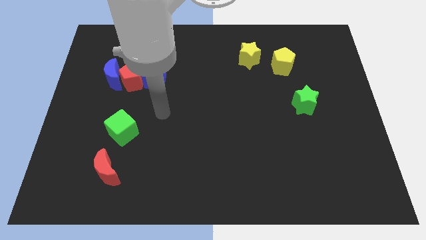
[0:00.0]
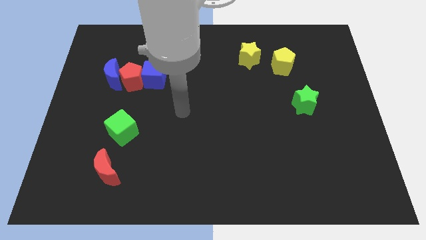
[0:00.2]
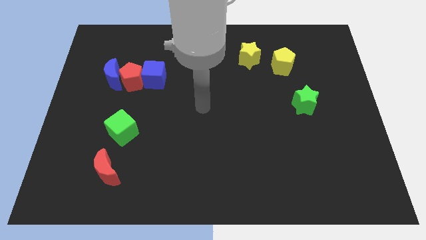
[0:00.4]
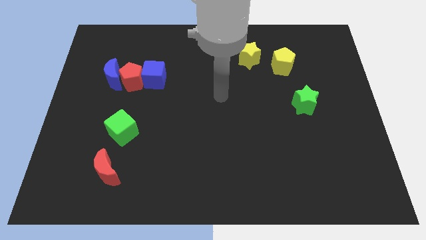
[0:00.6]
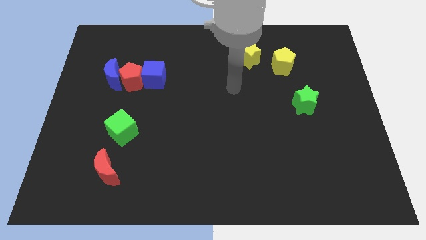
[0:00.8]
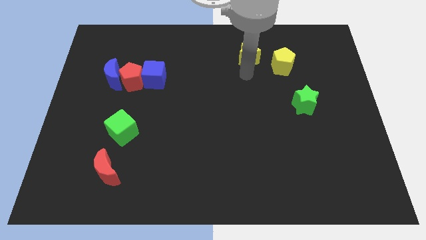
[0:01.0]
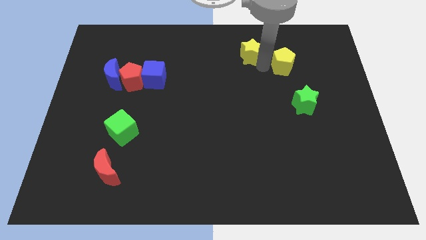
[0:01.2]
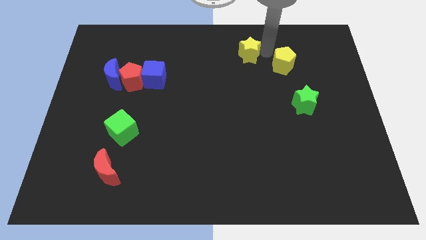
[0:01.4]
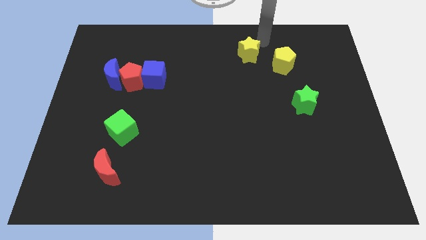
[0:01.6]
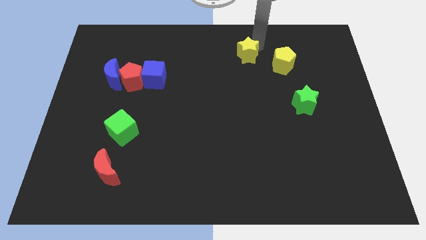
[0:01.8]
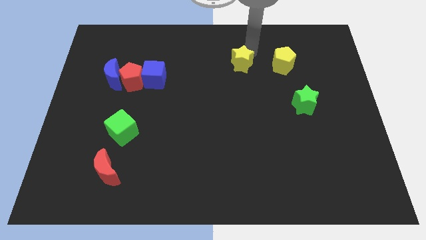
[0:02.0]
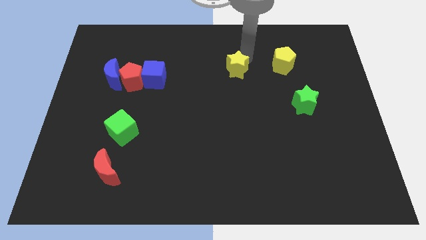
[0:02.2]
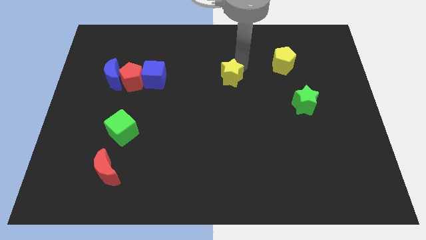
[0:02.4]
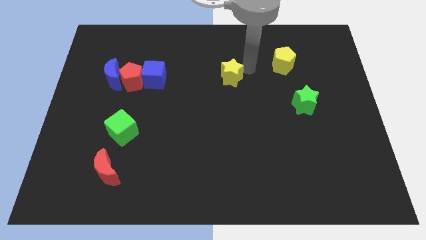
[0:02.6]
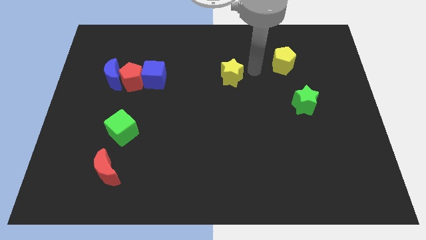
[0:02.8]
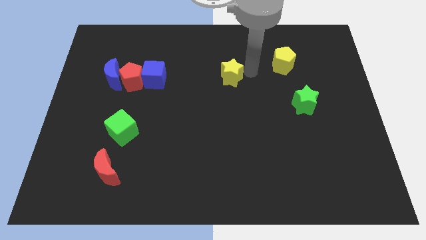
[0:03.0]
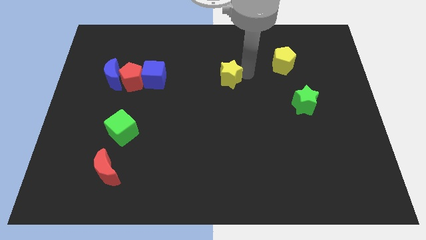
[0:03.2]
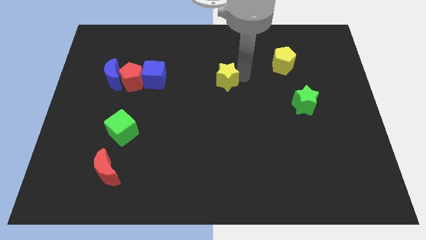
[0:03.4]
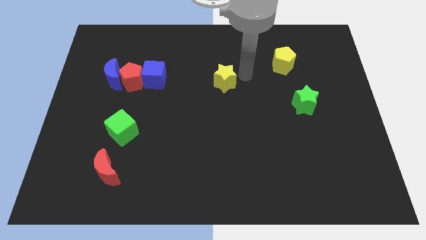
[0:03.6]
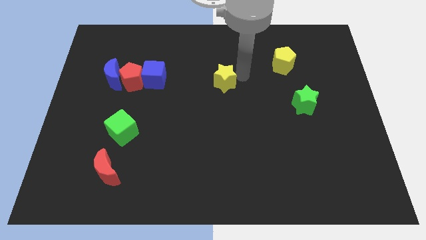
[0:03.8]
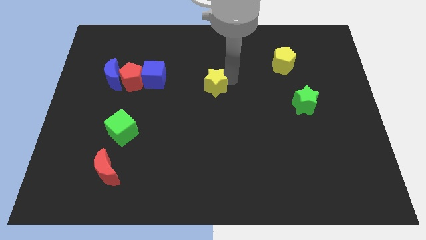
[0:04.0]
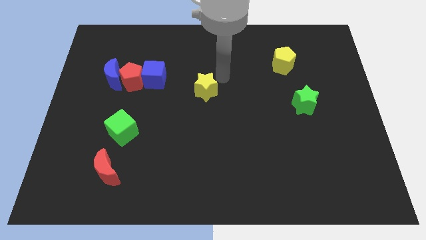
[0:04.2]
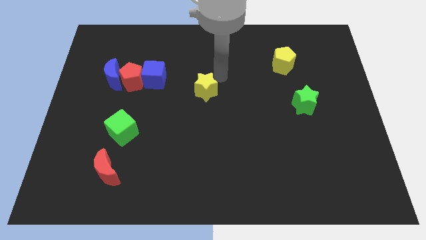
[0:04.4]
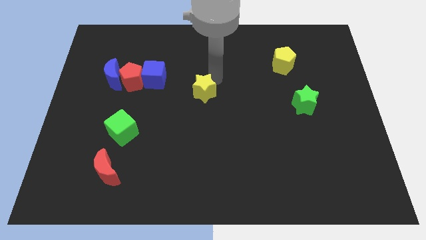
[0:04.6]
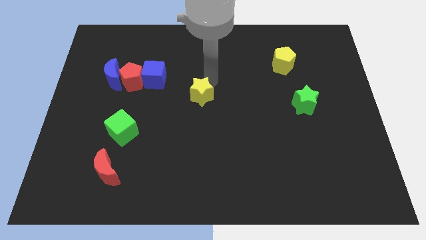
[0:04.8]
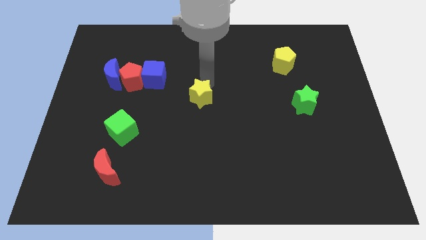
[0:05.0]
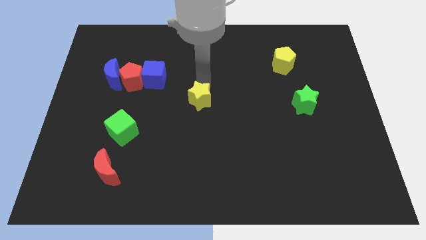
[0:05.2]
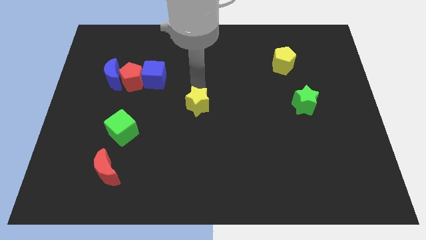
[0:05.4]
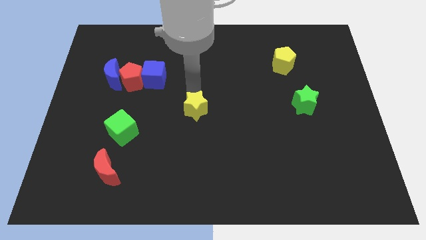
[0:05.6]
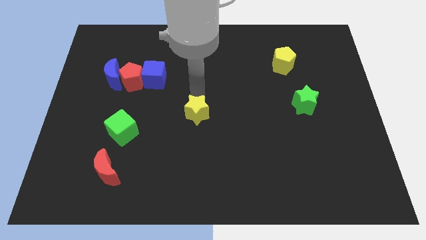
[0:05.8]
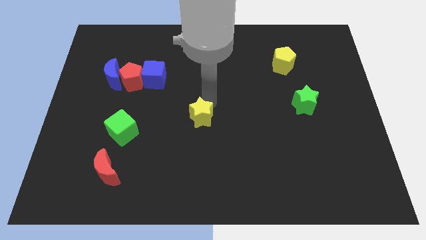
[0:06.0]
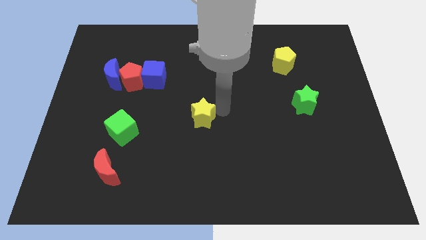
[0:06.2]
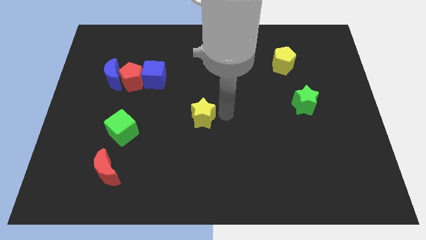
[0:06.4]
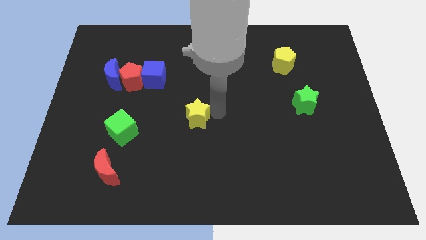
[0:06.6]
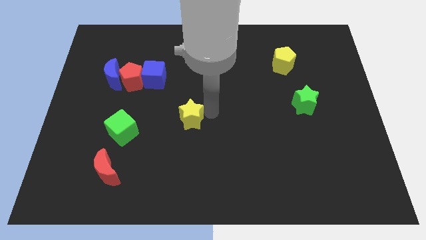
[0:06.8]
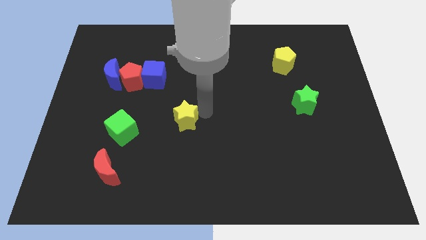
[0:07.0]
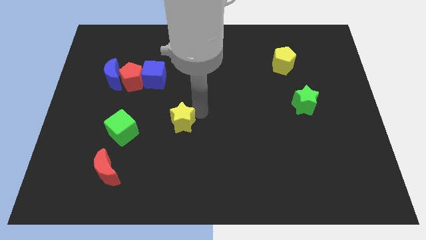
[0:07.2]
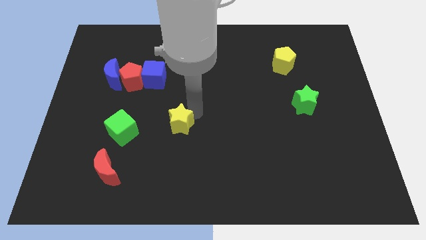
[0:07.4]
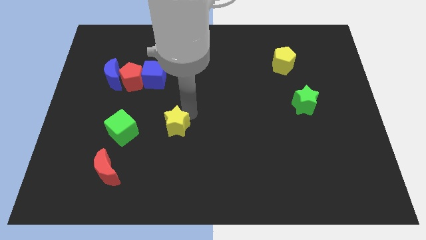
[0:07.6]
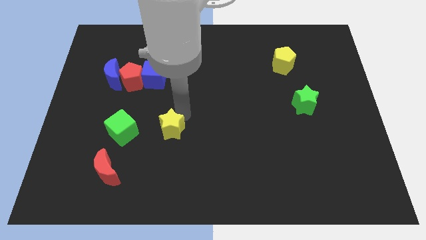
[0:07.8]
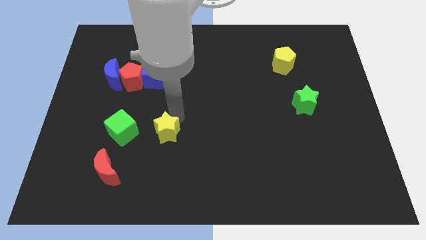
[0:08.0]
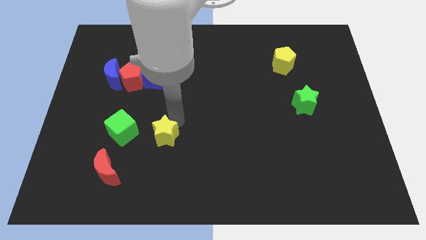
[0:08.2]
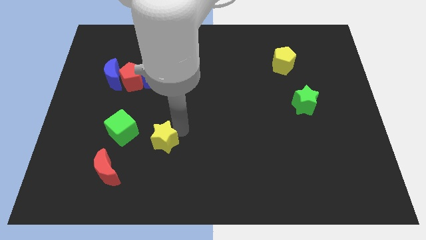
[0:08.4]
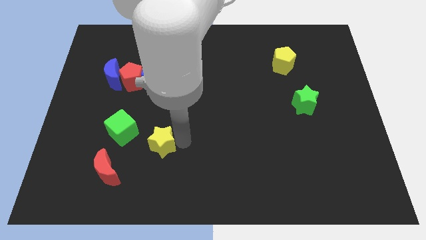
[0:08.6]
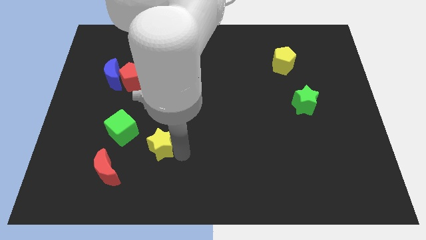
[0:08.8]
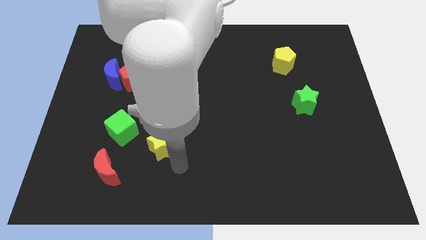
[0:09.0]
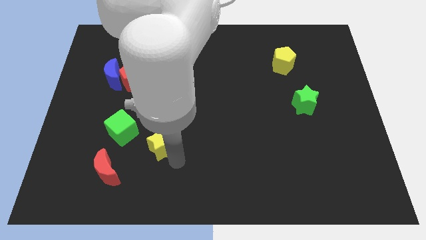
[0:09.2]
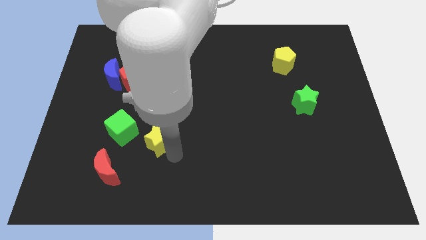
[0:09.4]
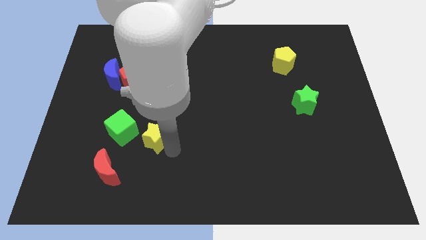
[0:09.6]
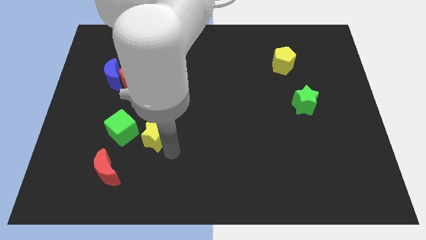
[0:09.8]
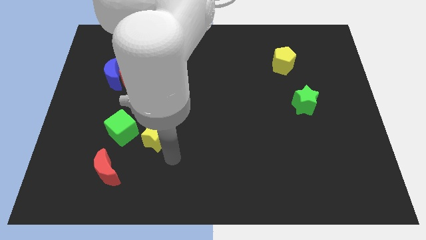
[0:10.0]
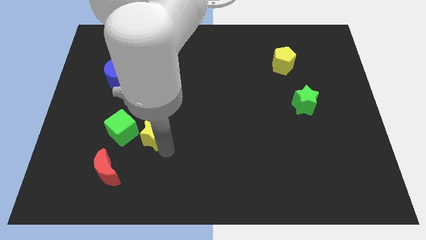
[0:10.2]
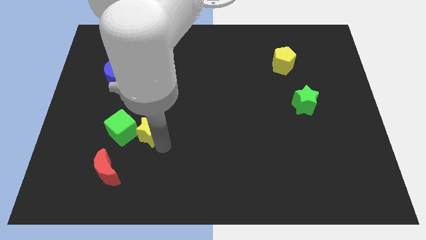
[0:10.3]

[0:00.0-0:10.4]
move the yellow star towards the green cube

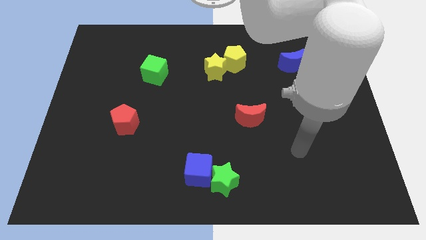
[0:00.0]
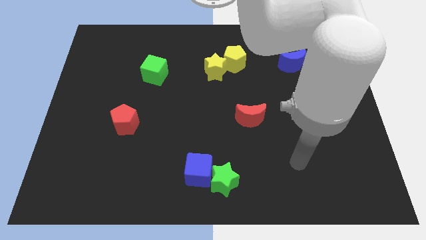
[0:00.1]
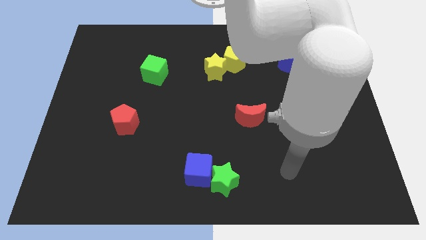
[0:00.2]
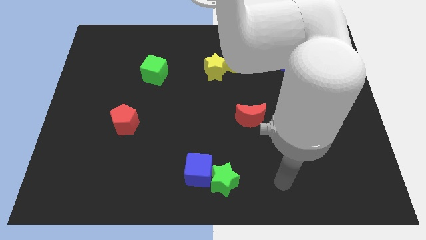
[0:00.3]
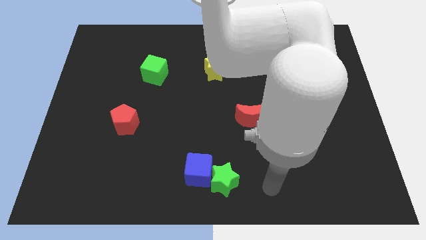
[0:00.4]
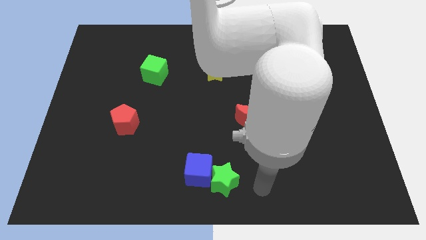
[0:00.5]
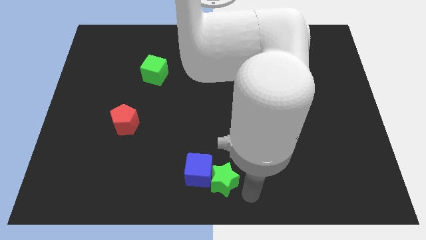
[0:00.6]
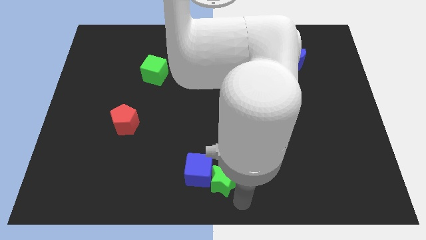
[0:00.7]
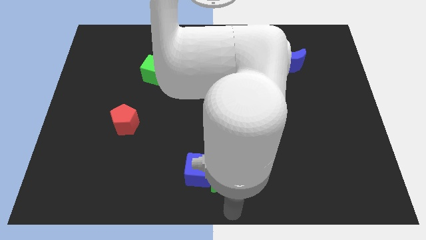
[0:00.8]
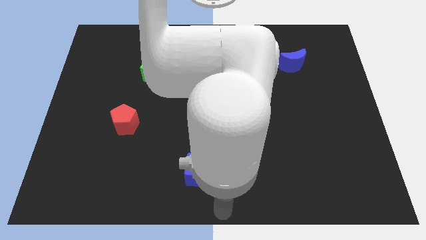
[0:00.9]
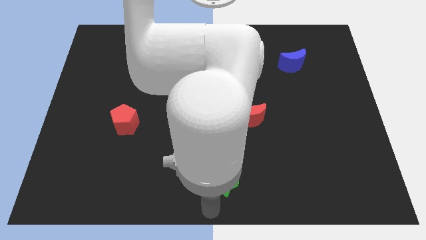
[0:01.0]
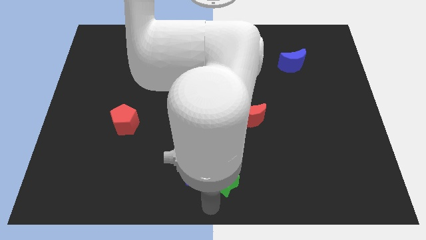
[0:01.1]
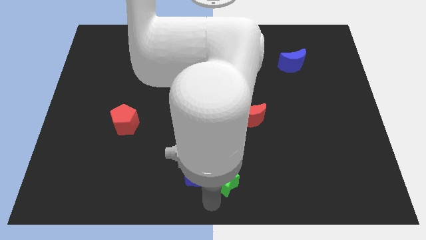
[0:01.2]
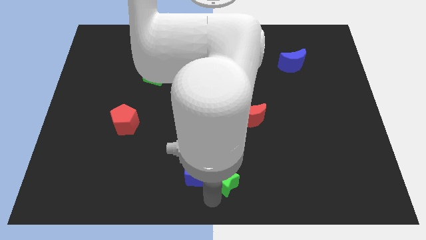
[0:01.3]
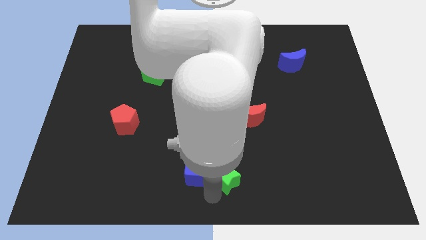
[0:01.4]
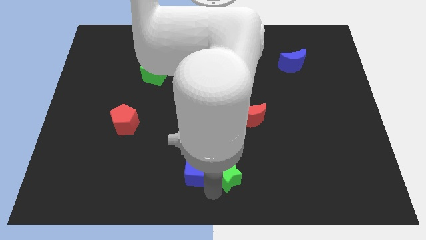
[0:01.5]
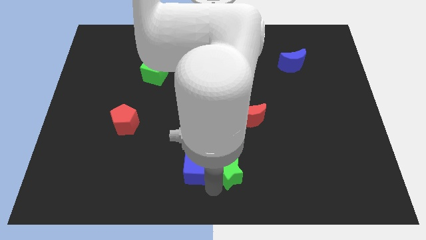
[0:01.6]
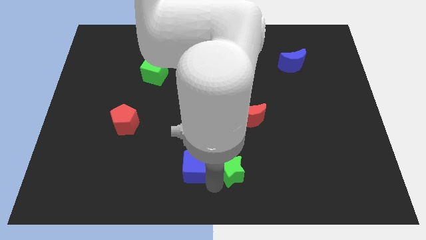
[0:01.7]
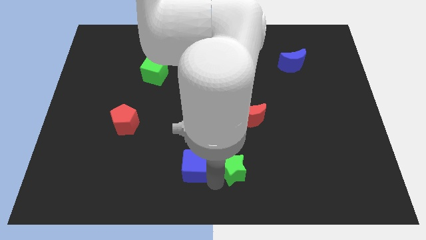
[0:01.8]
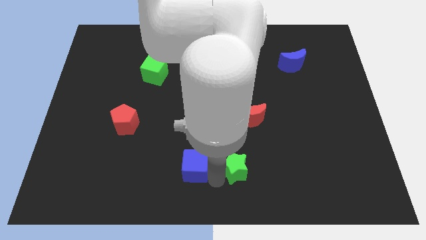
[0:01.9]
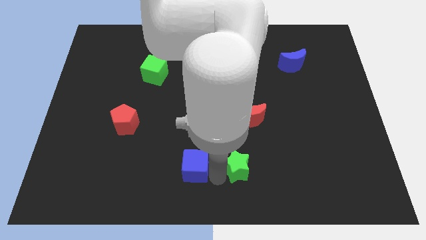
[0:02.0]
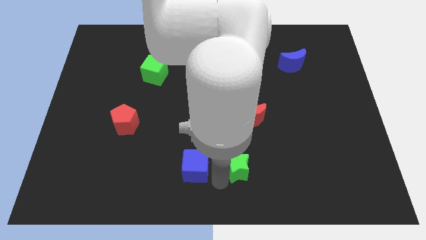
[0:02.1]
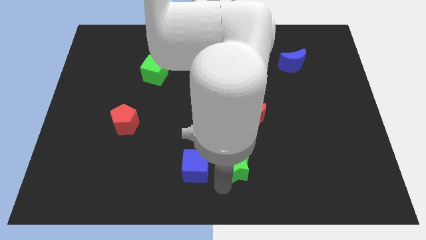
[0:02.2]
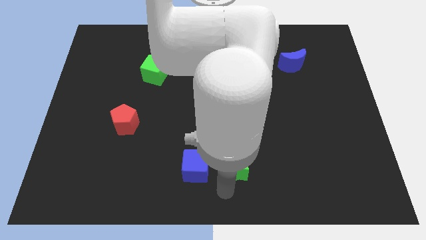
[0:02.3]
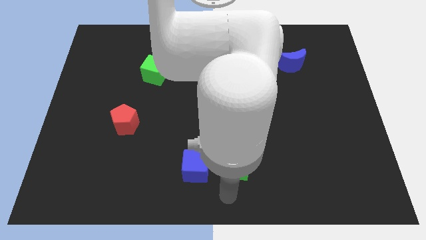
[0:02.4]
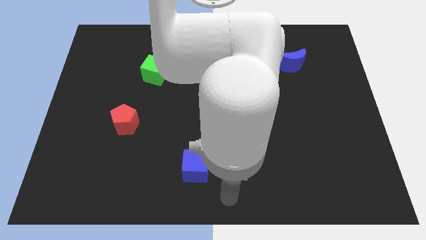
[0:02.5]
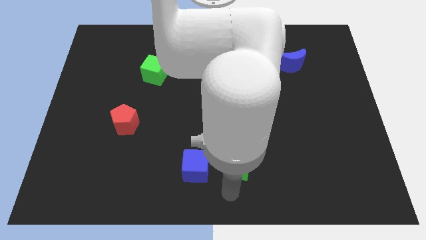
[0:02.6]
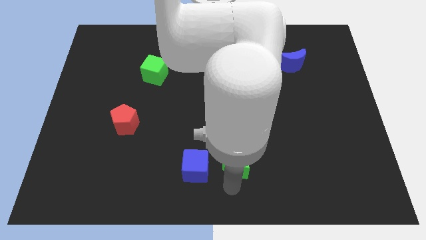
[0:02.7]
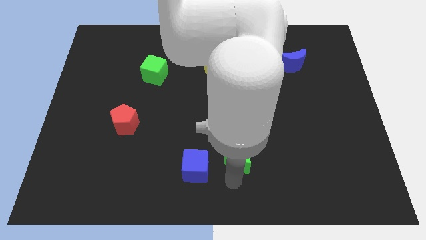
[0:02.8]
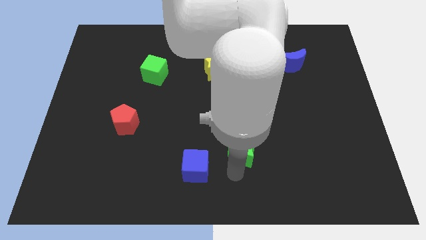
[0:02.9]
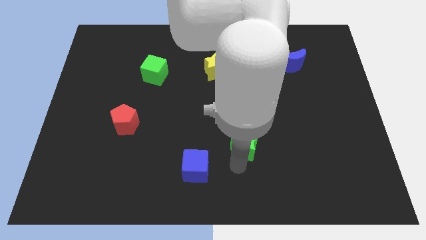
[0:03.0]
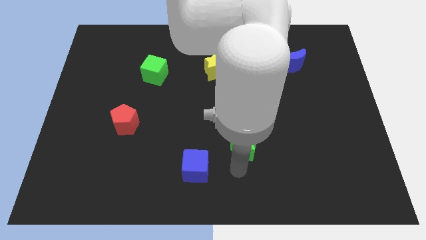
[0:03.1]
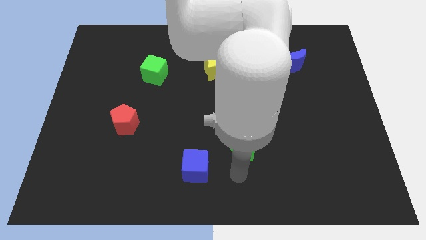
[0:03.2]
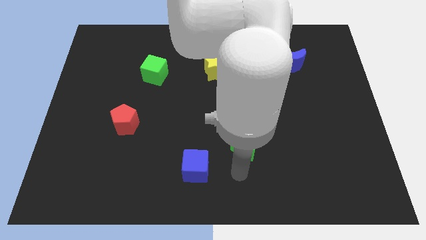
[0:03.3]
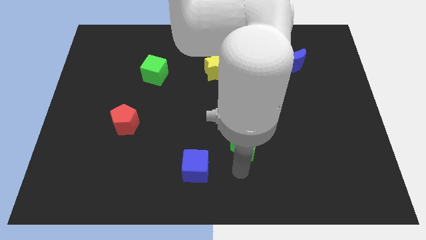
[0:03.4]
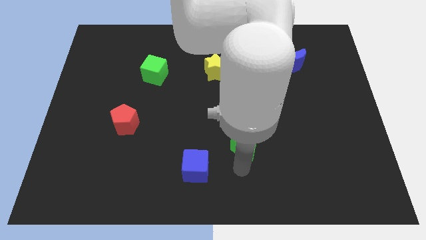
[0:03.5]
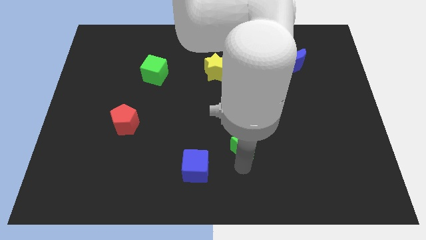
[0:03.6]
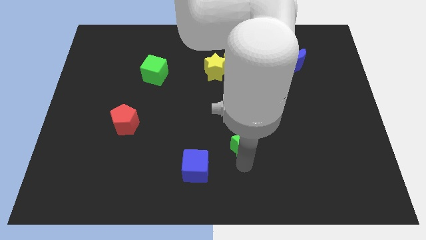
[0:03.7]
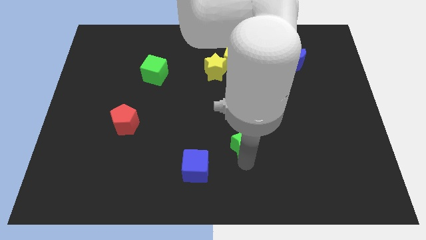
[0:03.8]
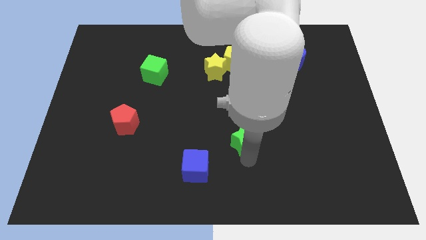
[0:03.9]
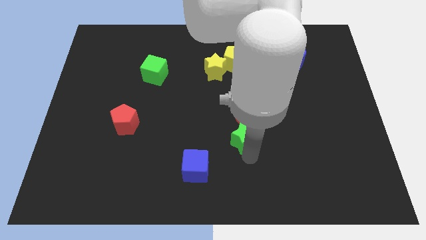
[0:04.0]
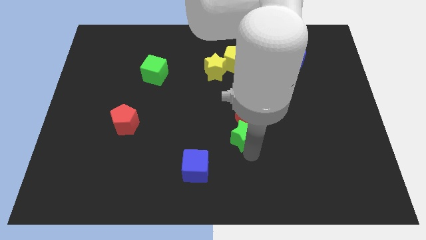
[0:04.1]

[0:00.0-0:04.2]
push the green star next to the red moon
